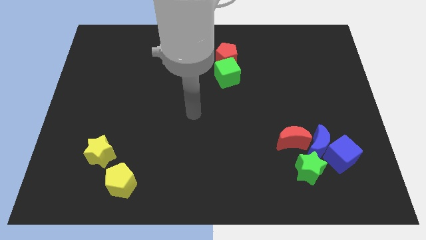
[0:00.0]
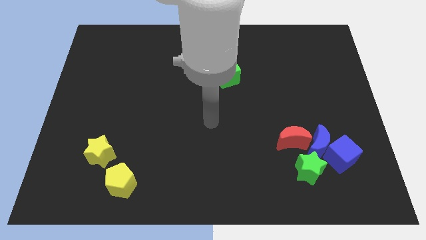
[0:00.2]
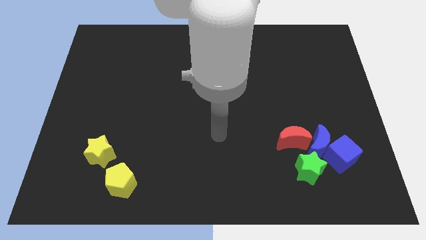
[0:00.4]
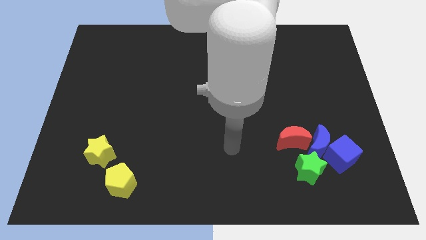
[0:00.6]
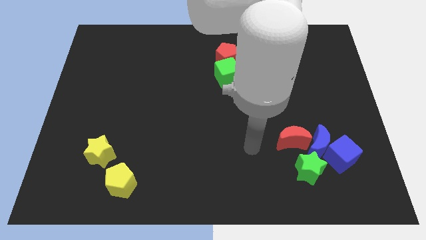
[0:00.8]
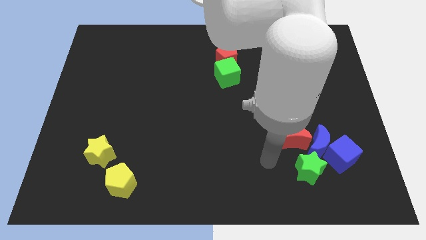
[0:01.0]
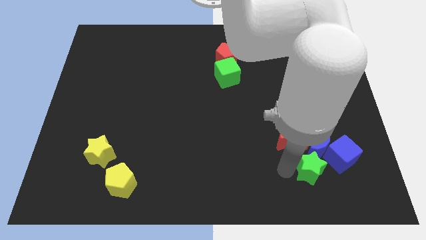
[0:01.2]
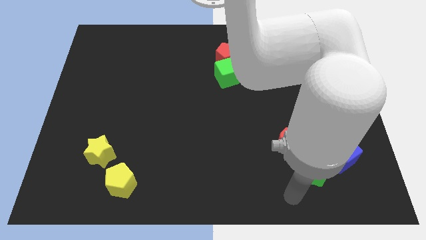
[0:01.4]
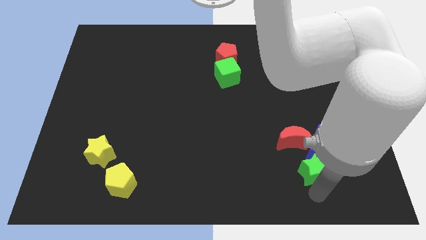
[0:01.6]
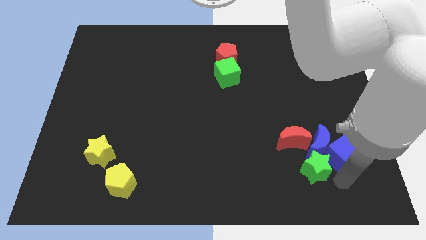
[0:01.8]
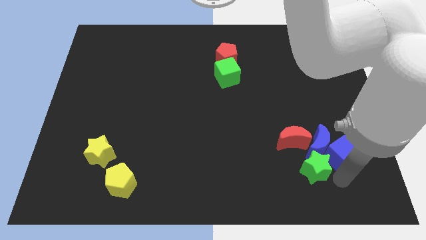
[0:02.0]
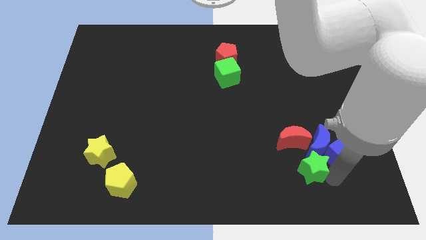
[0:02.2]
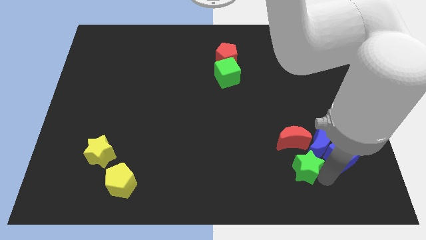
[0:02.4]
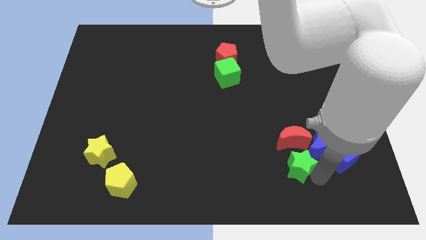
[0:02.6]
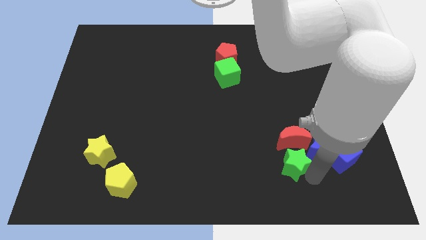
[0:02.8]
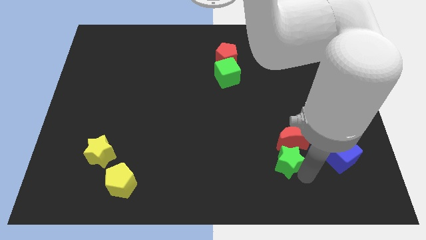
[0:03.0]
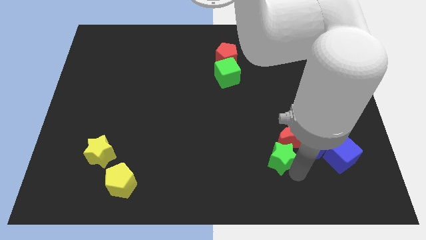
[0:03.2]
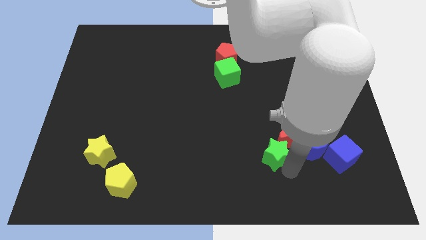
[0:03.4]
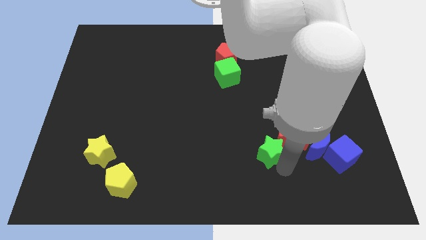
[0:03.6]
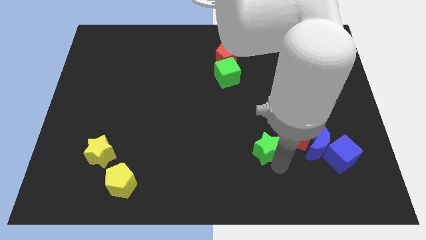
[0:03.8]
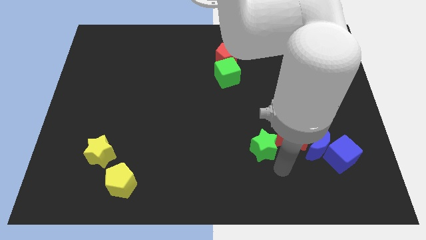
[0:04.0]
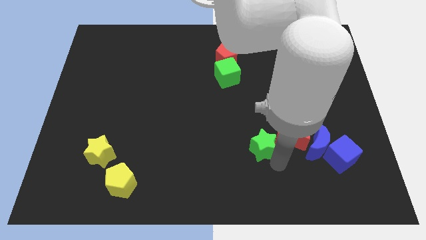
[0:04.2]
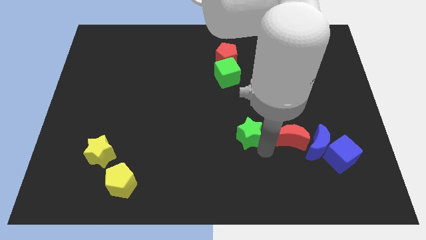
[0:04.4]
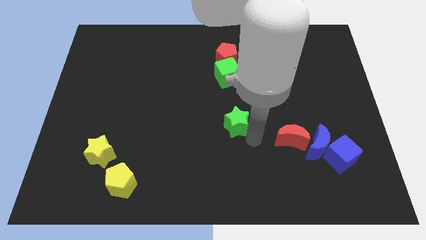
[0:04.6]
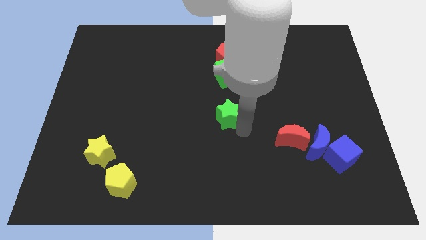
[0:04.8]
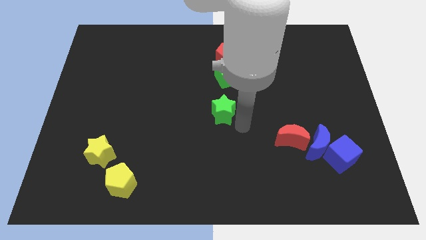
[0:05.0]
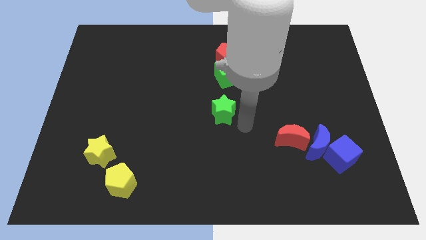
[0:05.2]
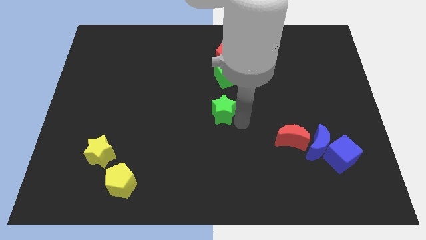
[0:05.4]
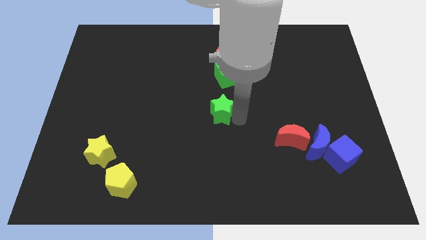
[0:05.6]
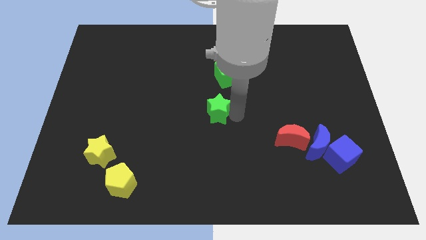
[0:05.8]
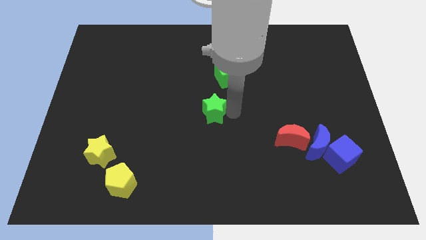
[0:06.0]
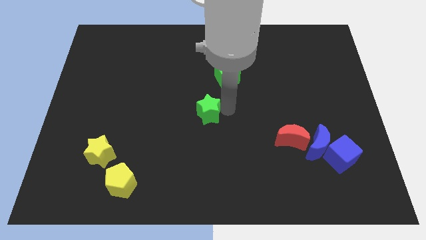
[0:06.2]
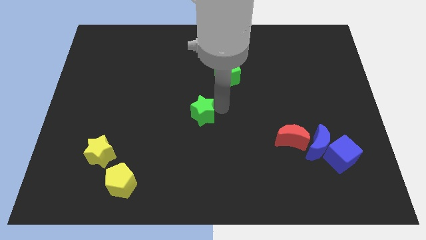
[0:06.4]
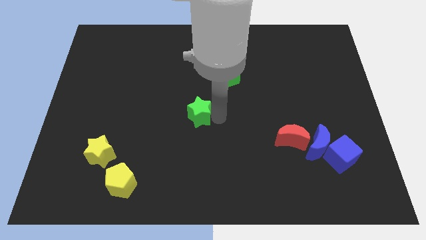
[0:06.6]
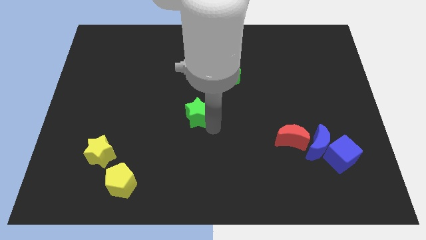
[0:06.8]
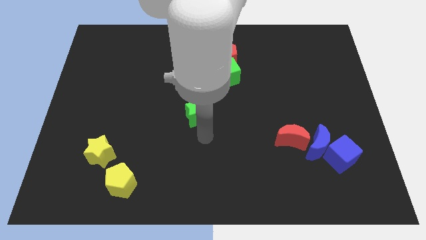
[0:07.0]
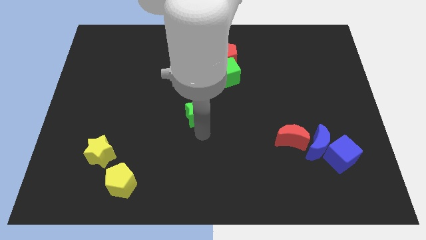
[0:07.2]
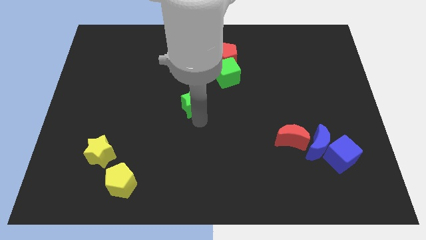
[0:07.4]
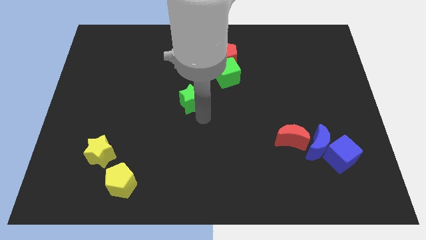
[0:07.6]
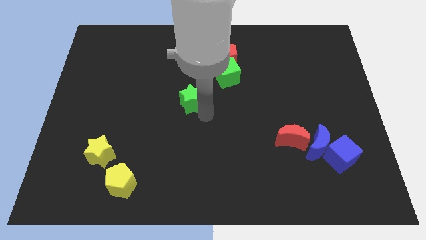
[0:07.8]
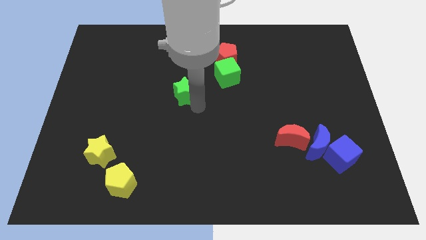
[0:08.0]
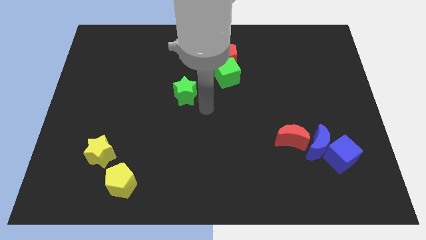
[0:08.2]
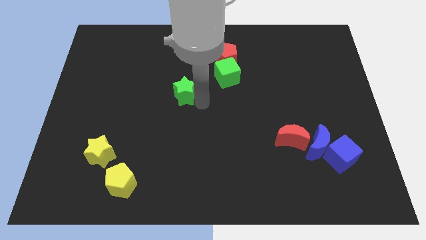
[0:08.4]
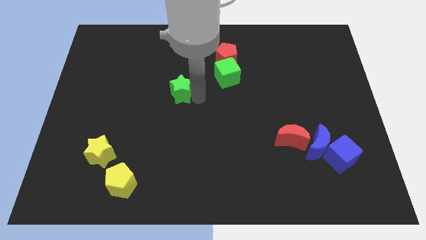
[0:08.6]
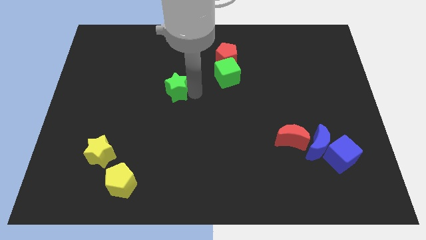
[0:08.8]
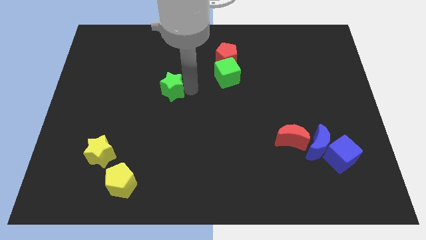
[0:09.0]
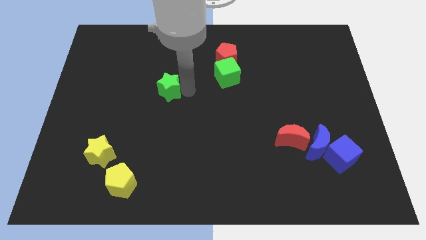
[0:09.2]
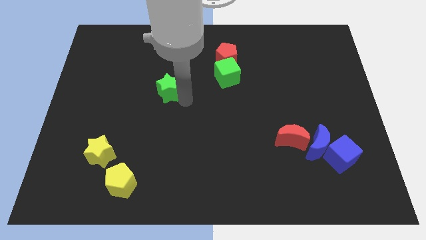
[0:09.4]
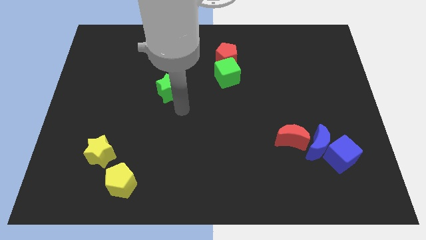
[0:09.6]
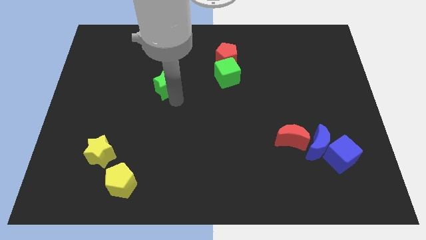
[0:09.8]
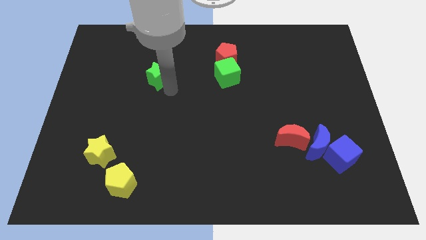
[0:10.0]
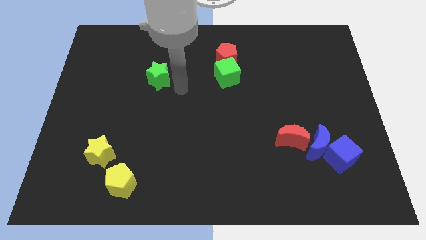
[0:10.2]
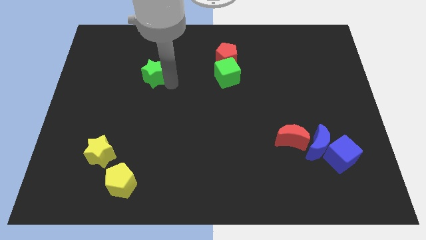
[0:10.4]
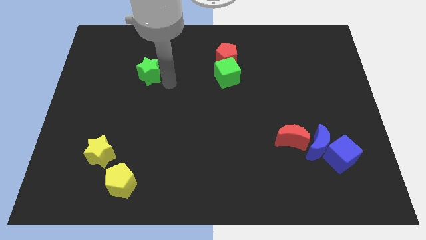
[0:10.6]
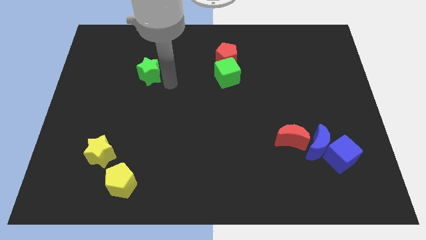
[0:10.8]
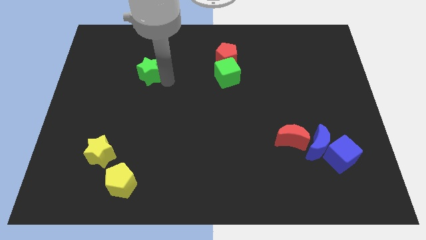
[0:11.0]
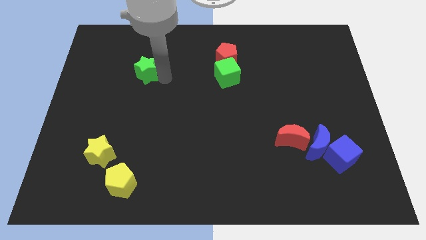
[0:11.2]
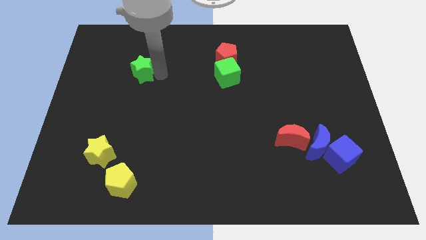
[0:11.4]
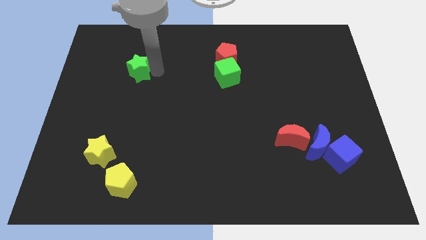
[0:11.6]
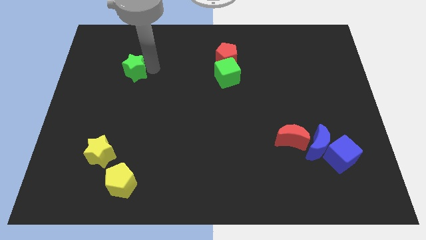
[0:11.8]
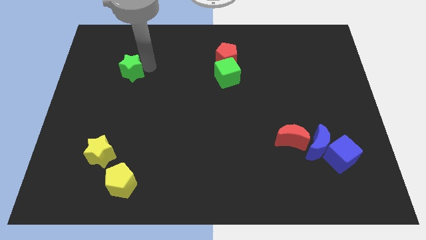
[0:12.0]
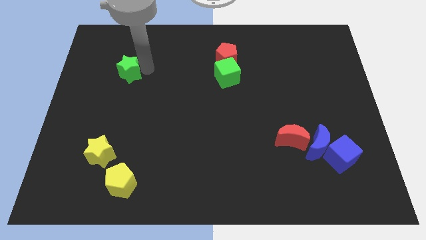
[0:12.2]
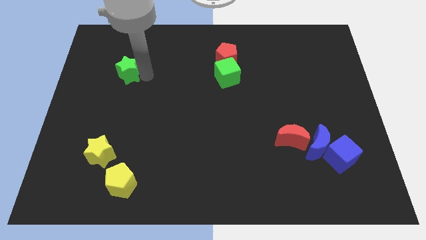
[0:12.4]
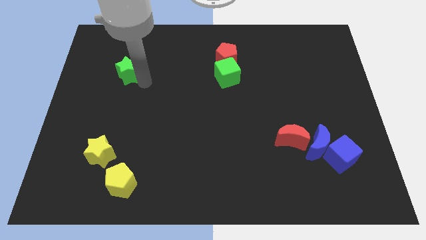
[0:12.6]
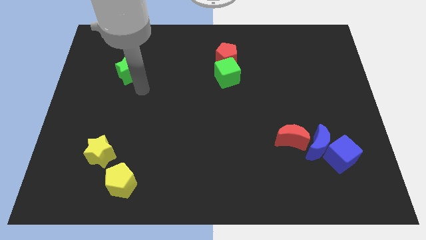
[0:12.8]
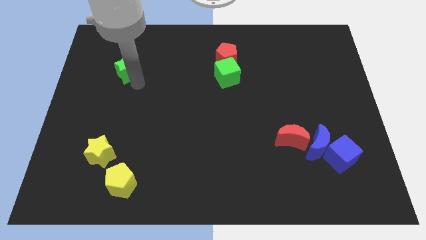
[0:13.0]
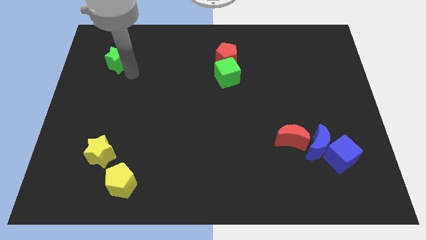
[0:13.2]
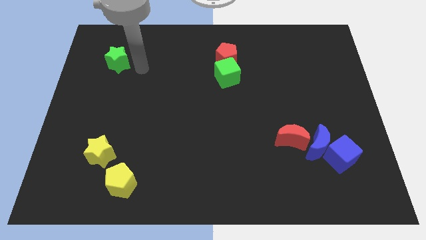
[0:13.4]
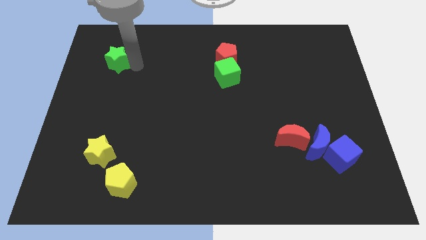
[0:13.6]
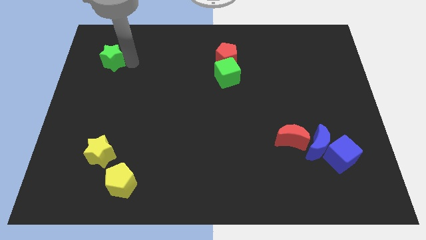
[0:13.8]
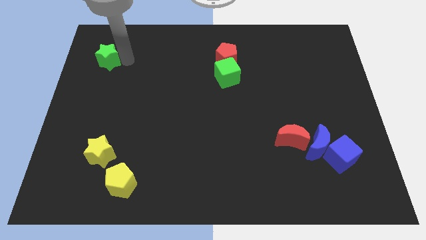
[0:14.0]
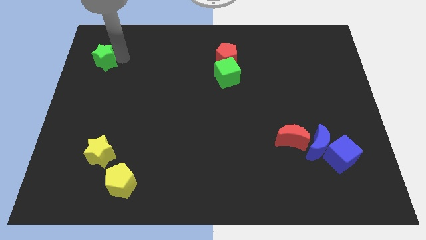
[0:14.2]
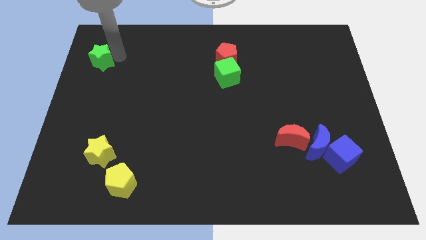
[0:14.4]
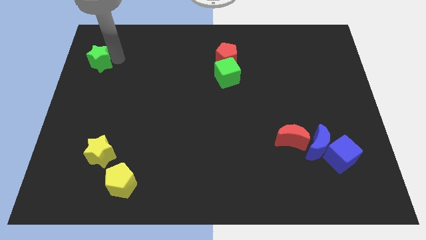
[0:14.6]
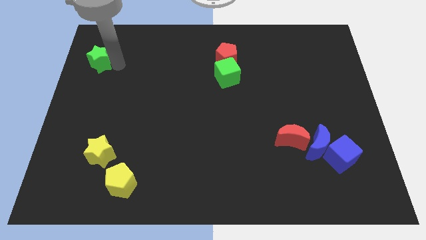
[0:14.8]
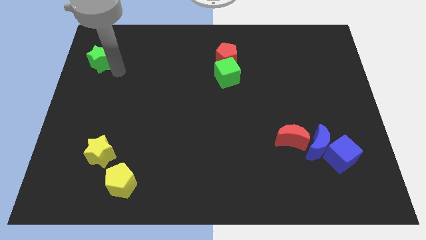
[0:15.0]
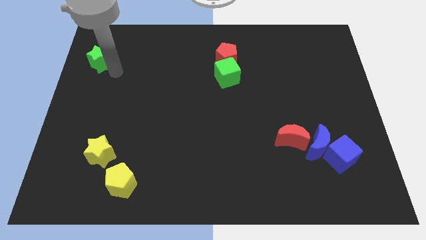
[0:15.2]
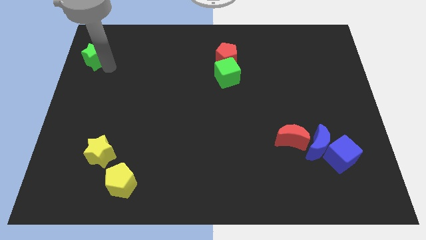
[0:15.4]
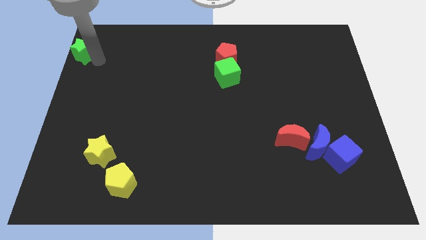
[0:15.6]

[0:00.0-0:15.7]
put the green star to the top left corner
